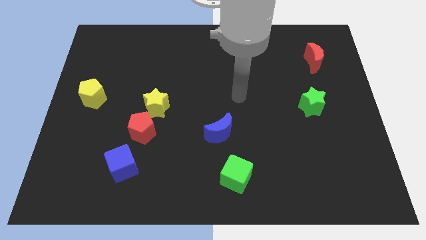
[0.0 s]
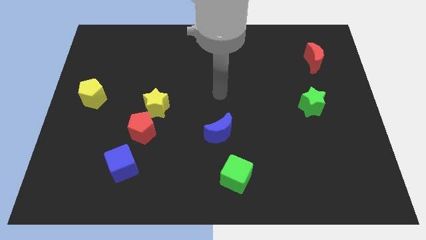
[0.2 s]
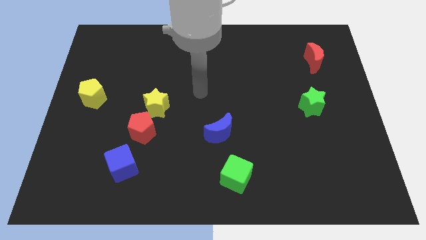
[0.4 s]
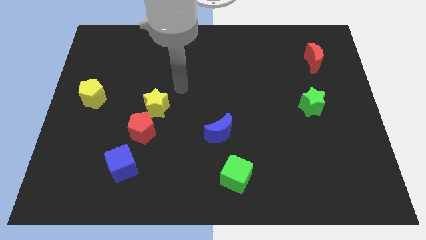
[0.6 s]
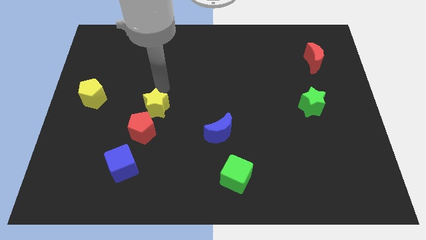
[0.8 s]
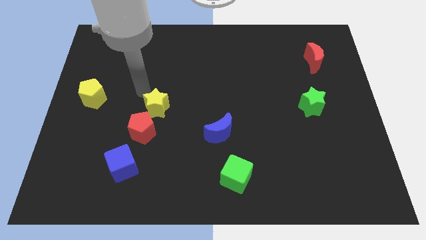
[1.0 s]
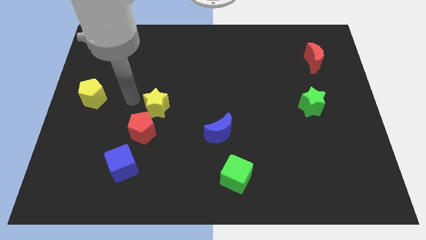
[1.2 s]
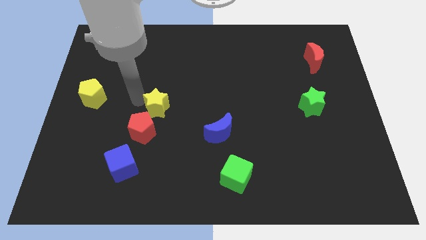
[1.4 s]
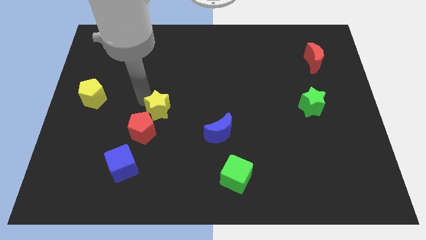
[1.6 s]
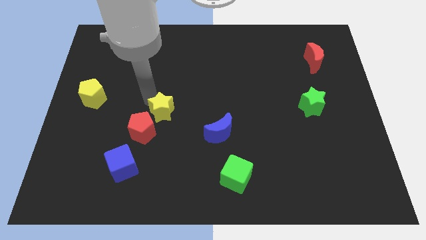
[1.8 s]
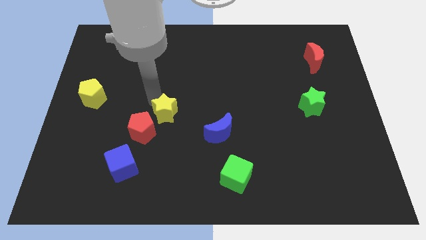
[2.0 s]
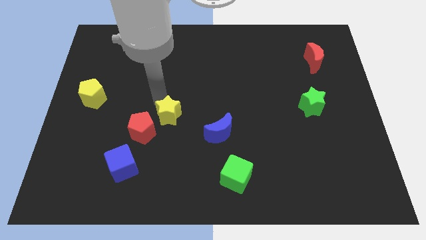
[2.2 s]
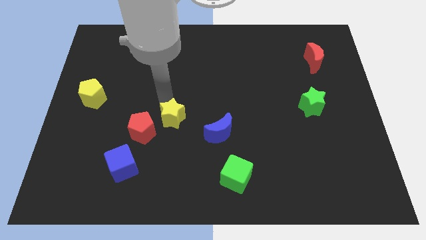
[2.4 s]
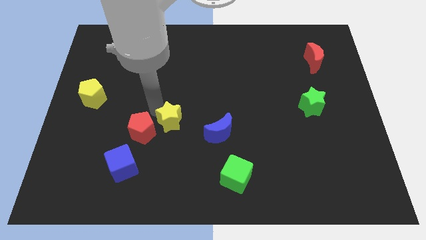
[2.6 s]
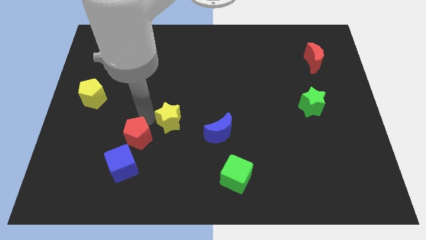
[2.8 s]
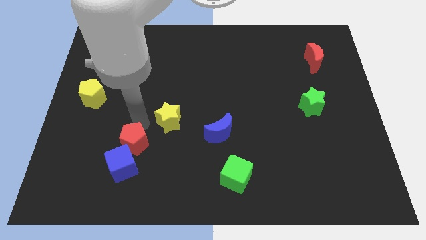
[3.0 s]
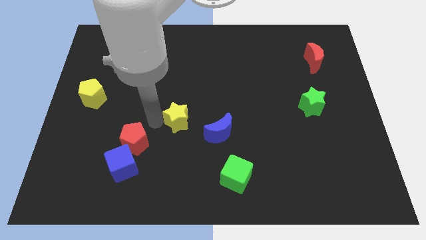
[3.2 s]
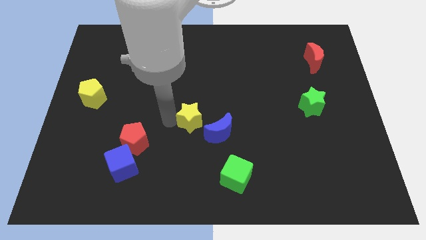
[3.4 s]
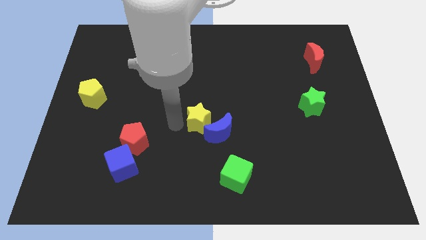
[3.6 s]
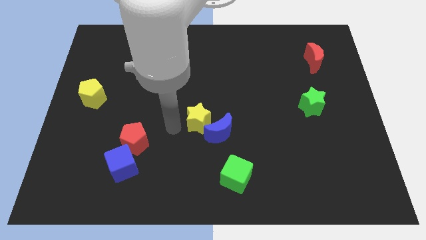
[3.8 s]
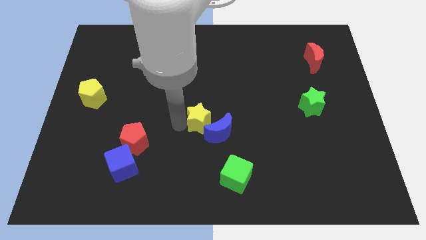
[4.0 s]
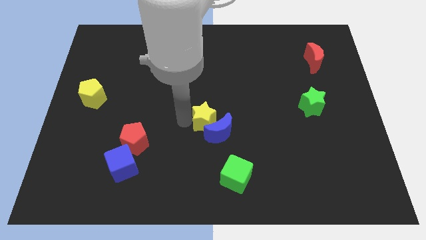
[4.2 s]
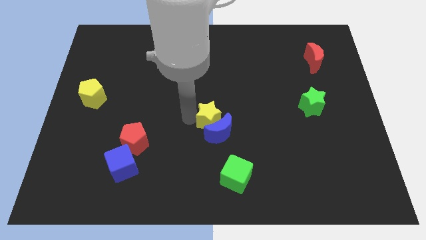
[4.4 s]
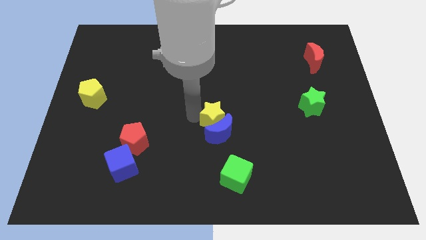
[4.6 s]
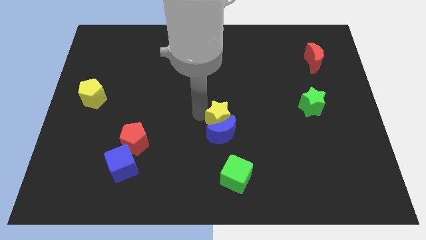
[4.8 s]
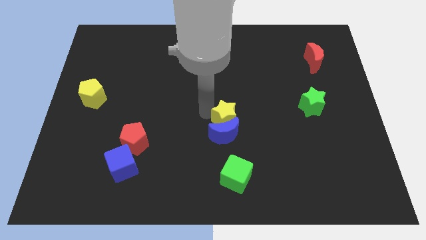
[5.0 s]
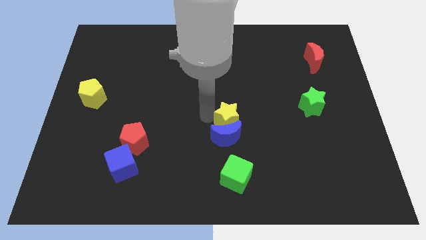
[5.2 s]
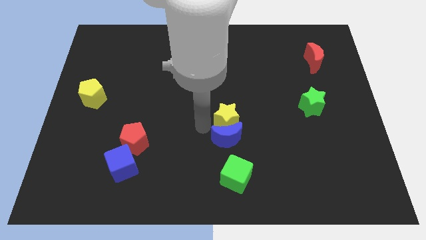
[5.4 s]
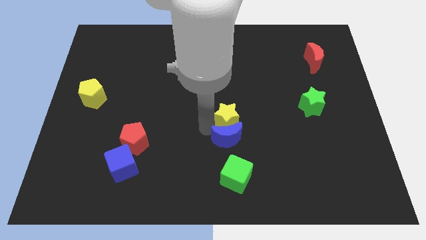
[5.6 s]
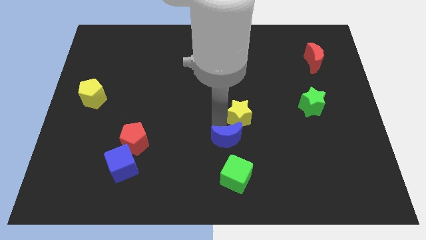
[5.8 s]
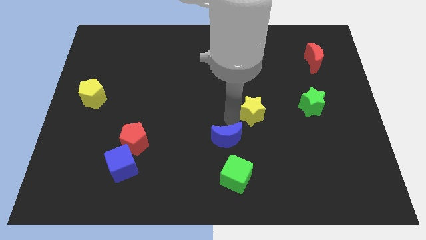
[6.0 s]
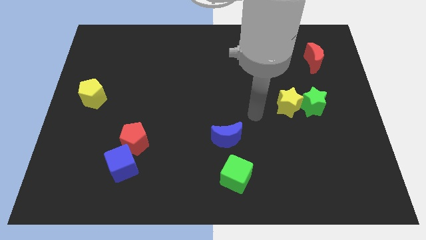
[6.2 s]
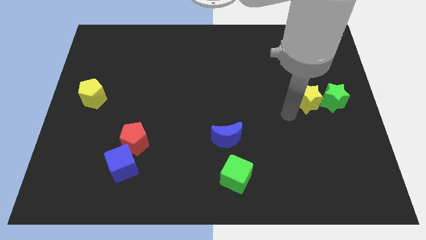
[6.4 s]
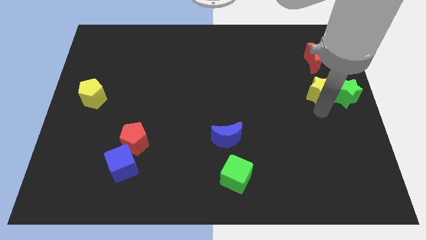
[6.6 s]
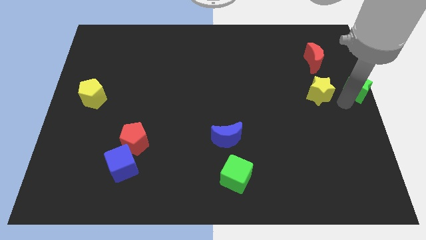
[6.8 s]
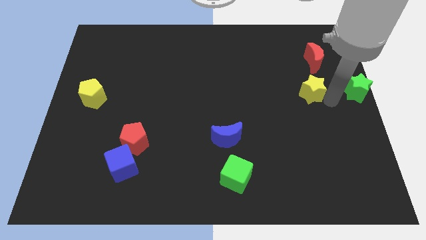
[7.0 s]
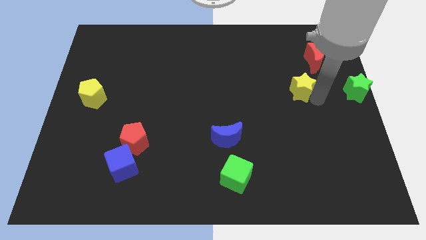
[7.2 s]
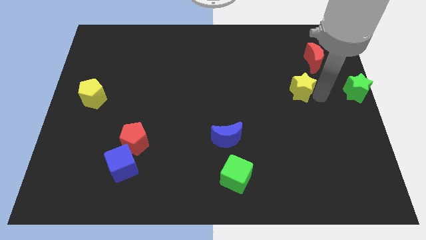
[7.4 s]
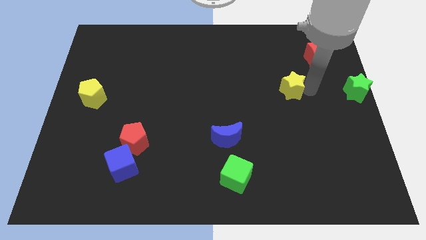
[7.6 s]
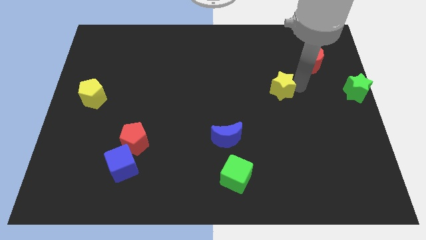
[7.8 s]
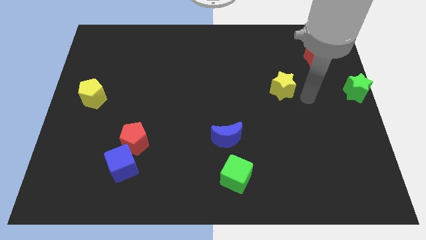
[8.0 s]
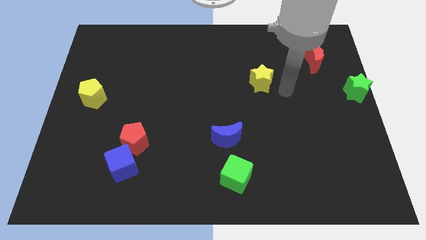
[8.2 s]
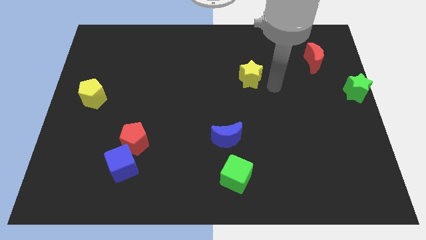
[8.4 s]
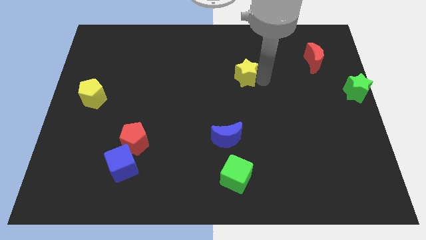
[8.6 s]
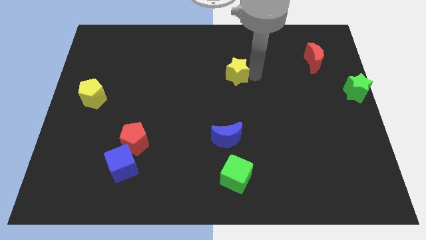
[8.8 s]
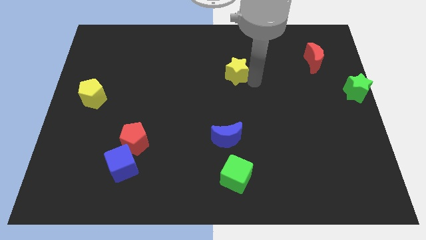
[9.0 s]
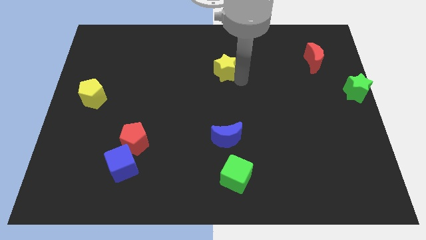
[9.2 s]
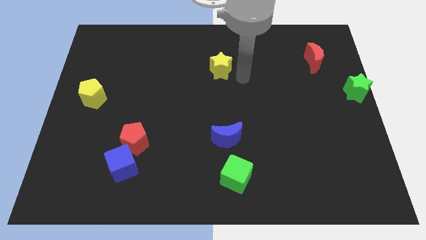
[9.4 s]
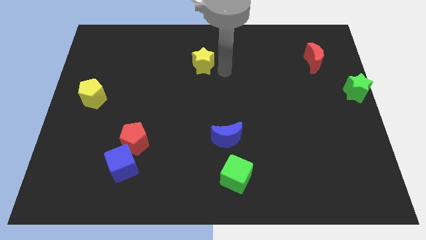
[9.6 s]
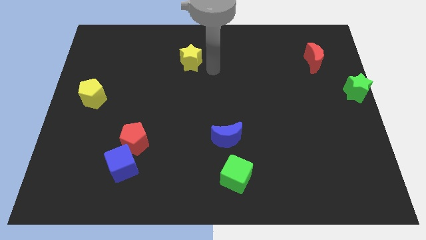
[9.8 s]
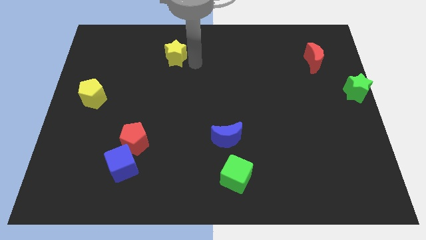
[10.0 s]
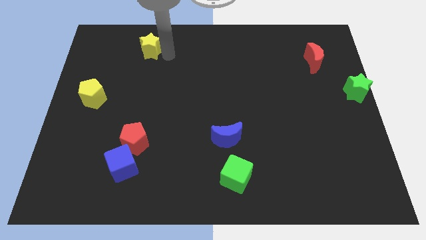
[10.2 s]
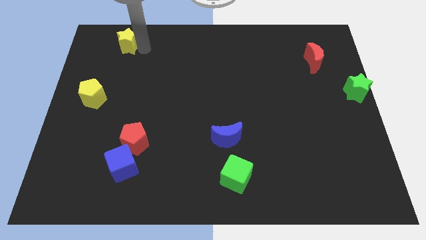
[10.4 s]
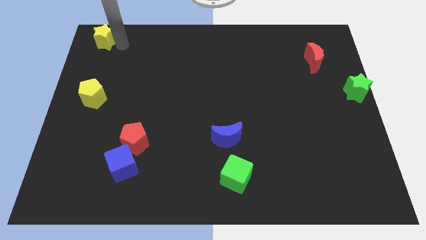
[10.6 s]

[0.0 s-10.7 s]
move the yellow star to the top left corner

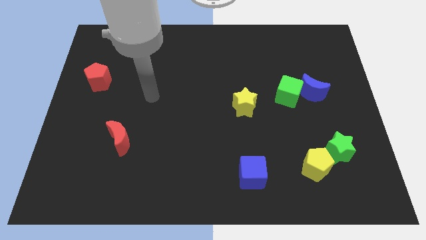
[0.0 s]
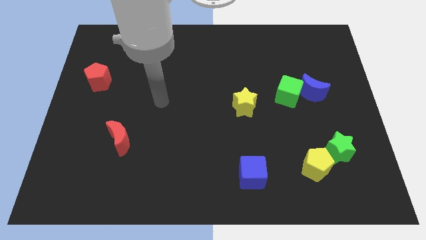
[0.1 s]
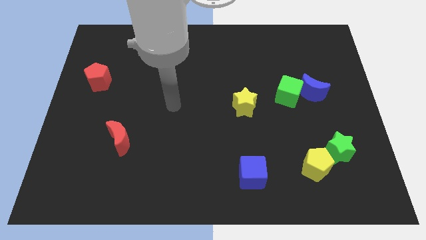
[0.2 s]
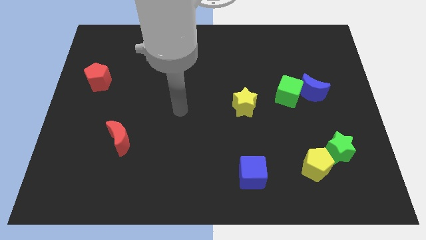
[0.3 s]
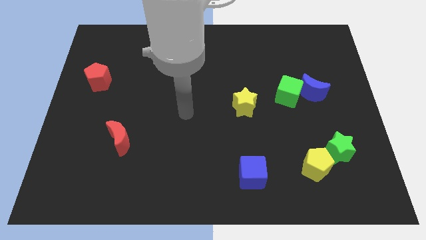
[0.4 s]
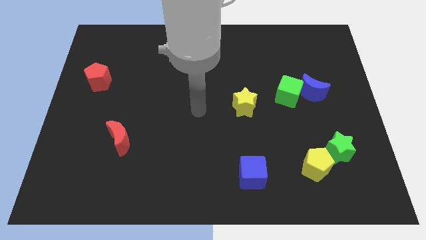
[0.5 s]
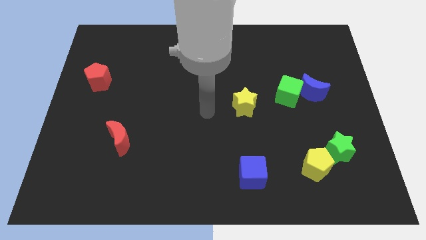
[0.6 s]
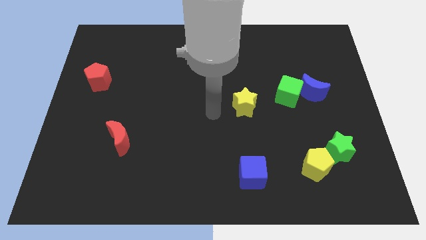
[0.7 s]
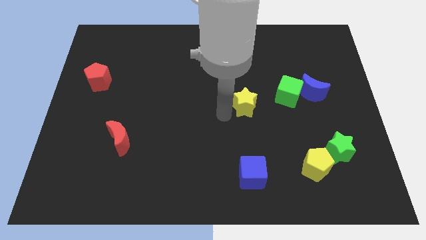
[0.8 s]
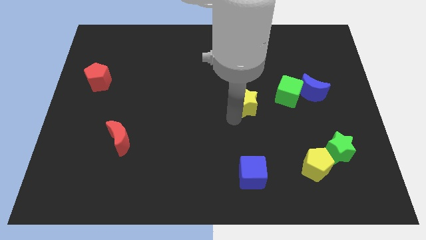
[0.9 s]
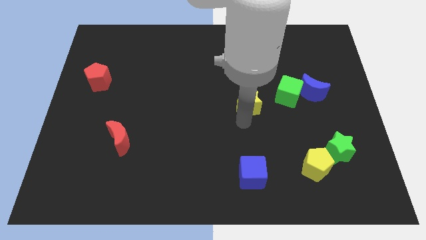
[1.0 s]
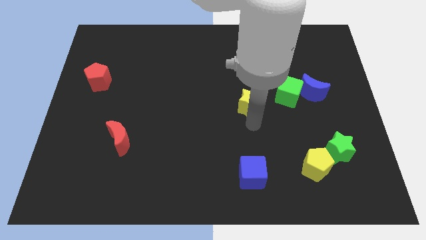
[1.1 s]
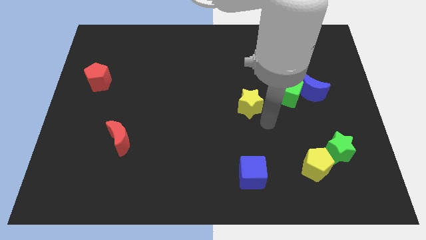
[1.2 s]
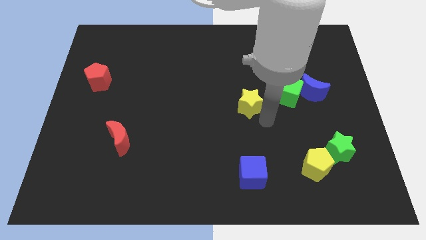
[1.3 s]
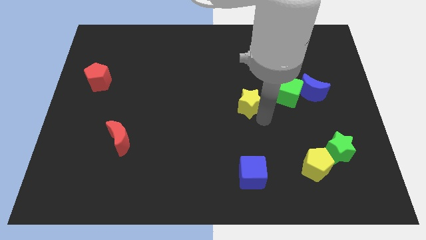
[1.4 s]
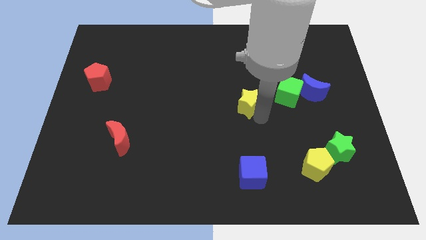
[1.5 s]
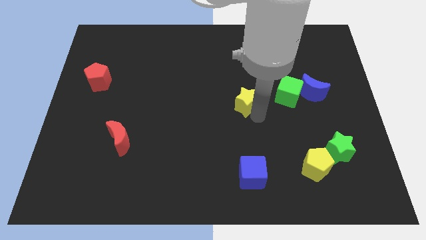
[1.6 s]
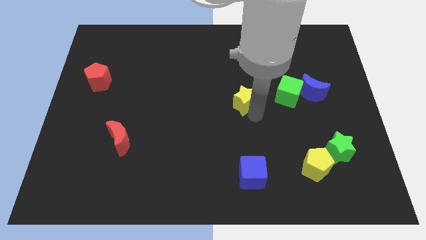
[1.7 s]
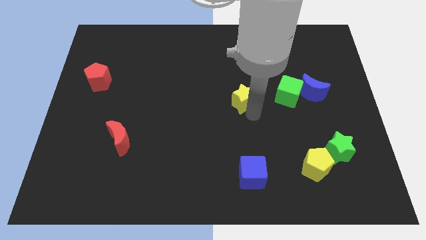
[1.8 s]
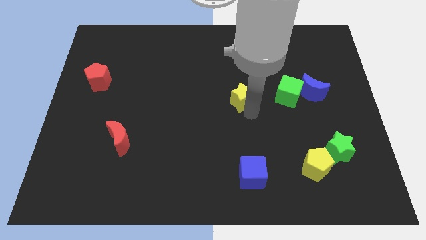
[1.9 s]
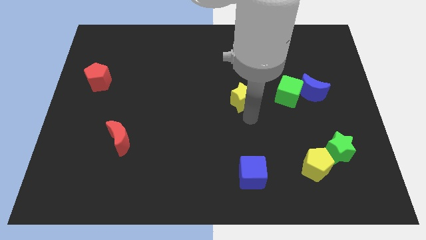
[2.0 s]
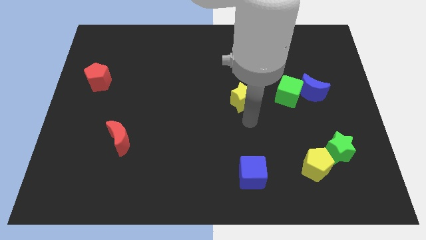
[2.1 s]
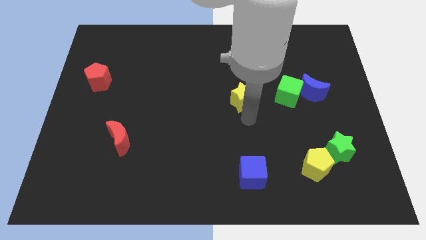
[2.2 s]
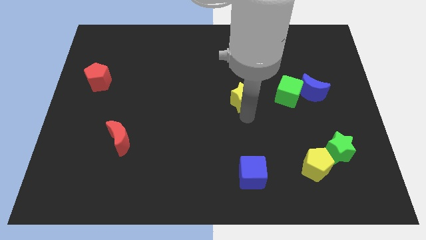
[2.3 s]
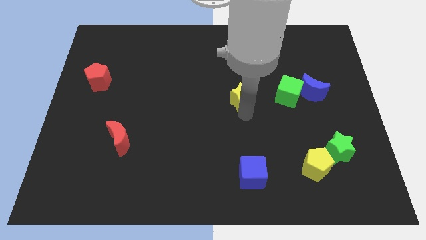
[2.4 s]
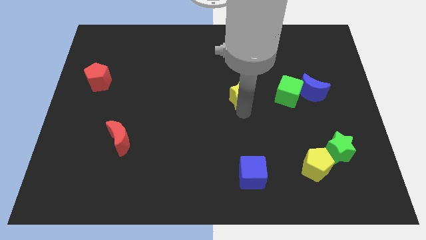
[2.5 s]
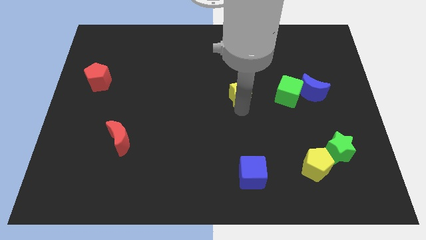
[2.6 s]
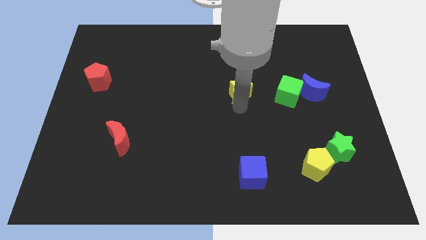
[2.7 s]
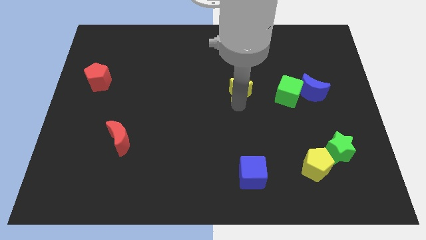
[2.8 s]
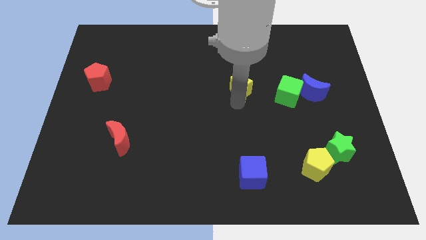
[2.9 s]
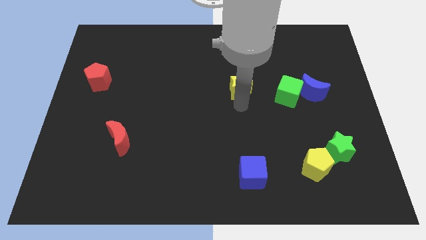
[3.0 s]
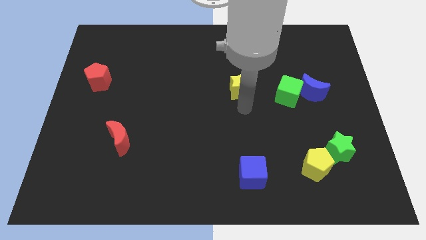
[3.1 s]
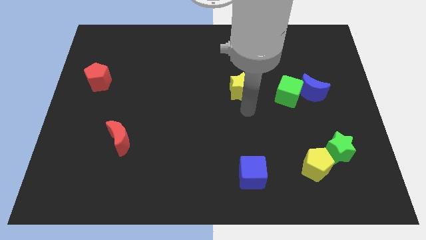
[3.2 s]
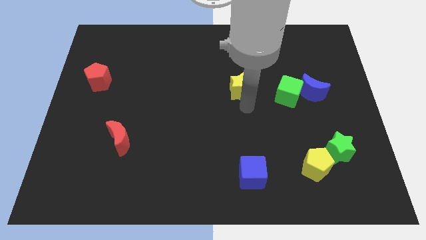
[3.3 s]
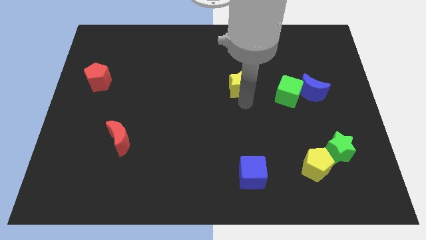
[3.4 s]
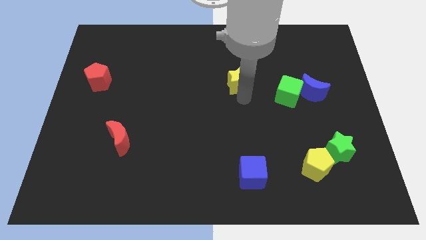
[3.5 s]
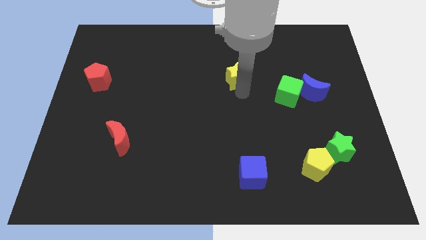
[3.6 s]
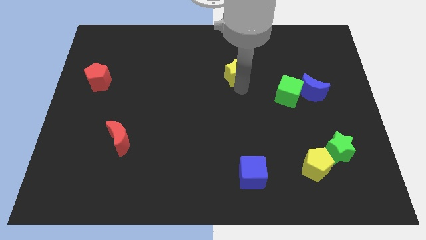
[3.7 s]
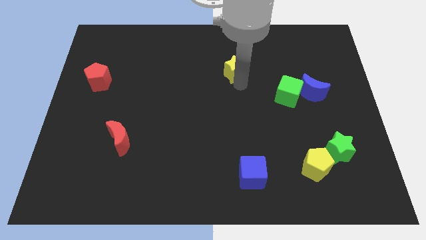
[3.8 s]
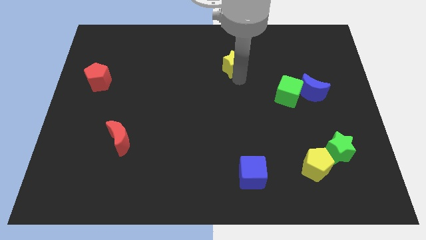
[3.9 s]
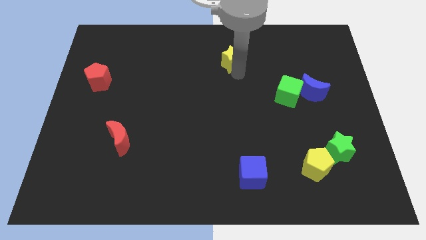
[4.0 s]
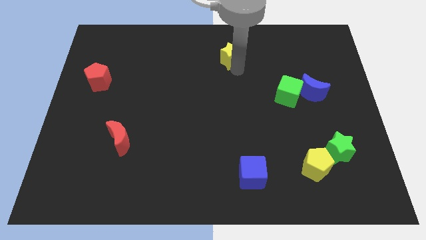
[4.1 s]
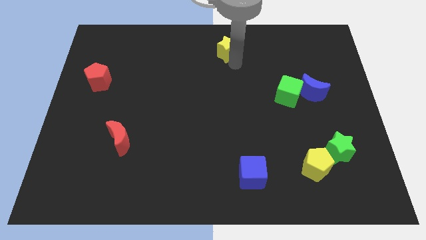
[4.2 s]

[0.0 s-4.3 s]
push the yellow star to the top
